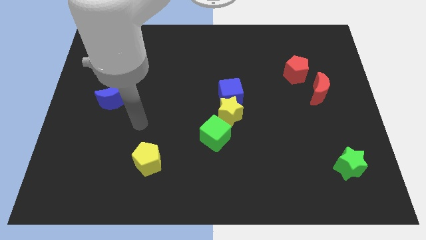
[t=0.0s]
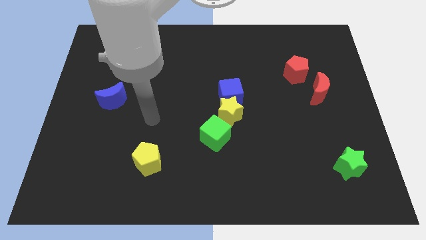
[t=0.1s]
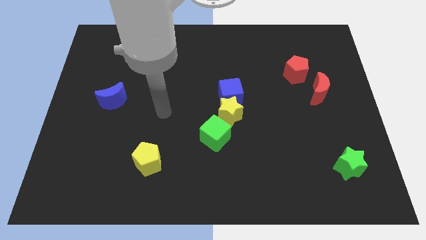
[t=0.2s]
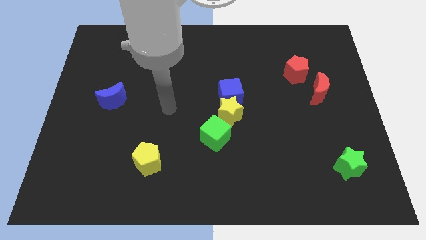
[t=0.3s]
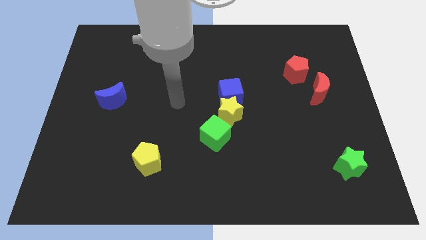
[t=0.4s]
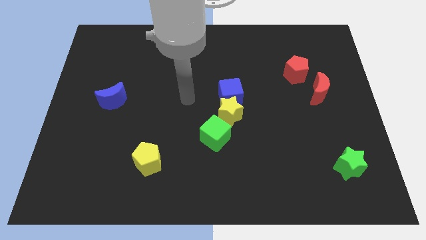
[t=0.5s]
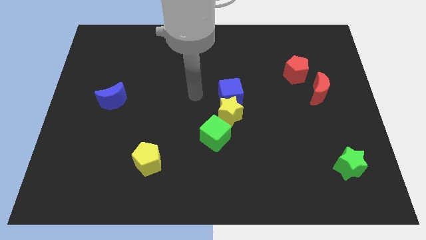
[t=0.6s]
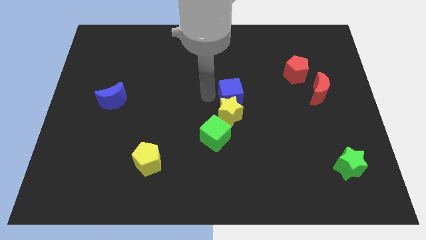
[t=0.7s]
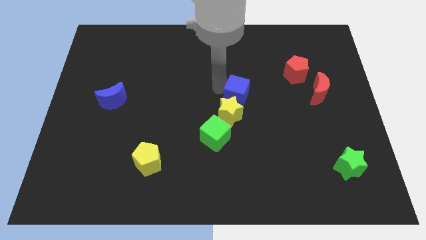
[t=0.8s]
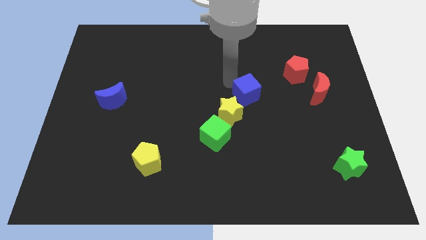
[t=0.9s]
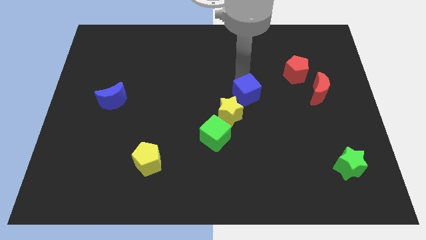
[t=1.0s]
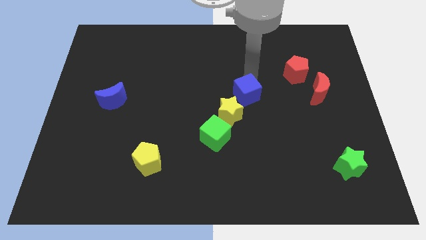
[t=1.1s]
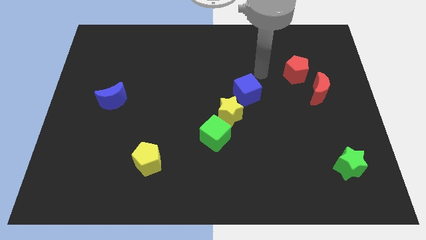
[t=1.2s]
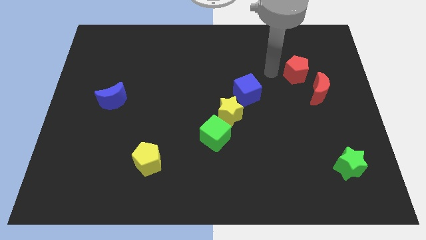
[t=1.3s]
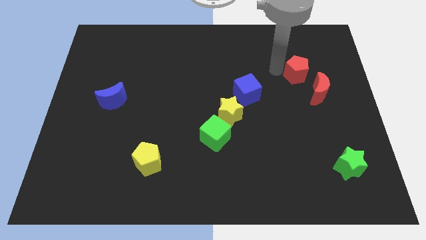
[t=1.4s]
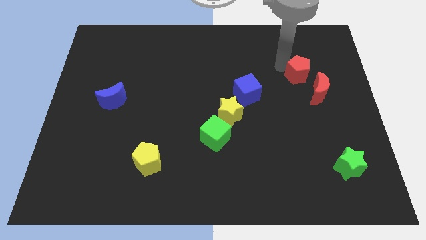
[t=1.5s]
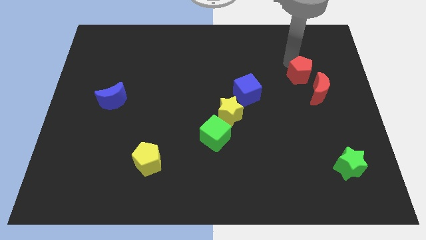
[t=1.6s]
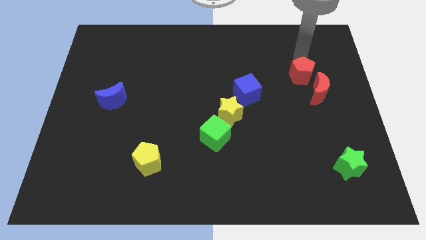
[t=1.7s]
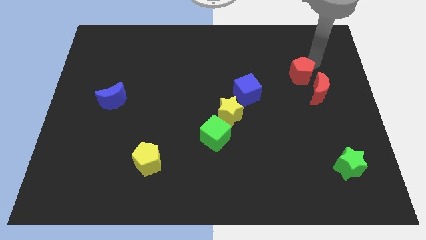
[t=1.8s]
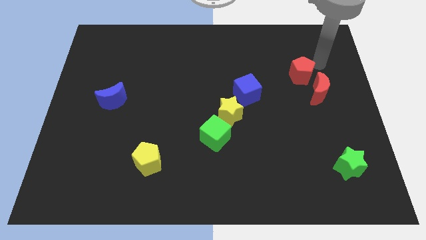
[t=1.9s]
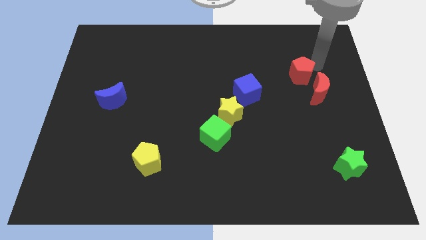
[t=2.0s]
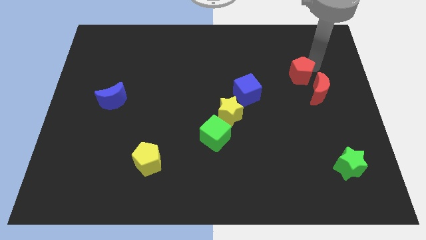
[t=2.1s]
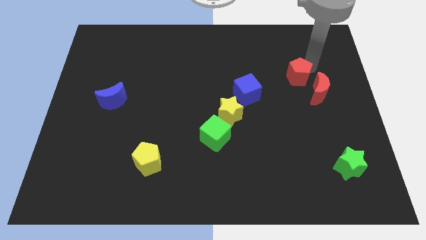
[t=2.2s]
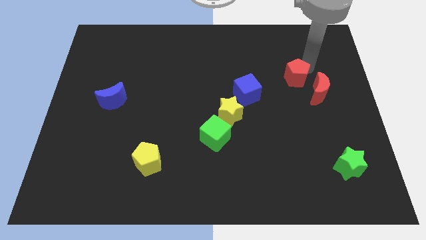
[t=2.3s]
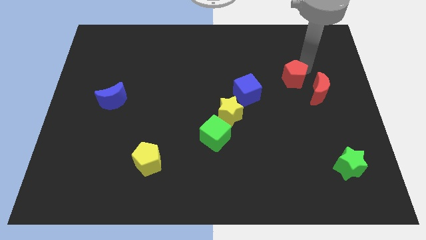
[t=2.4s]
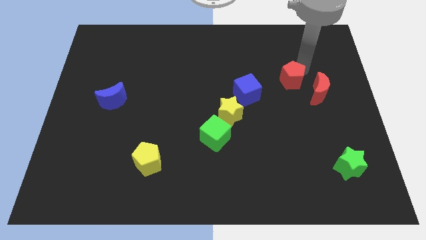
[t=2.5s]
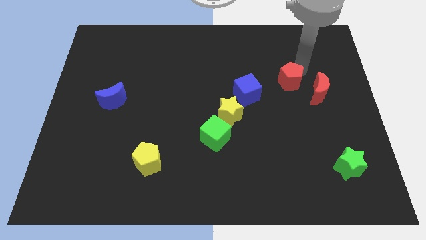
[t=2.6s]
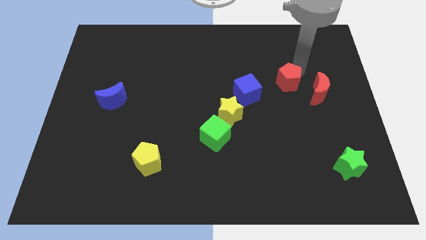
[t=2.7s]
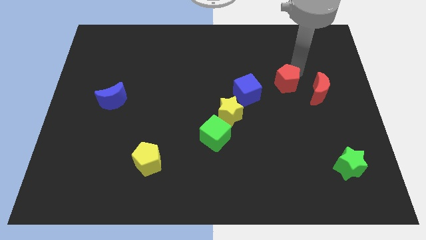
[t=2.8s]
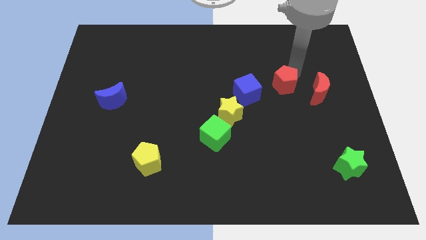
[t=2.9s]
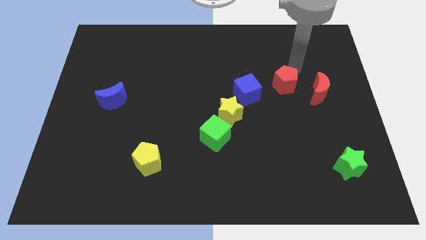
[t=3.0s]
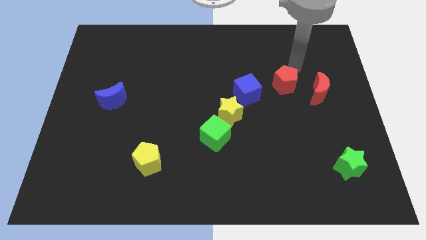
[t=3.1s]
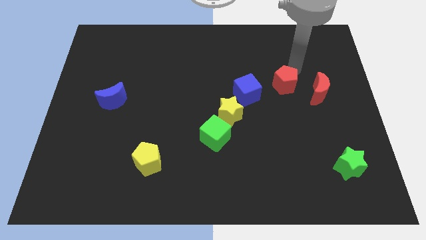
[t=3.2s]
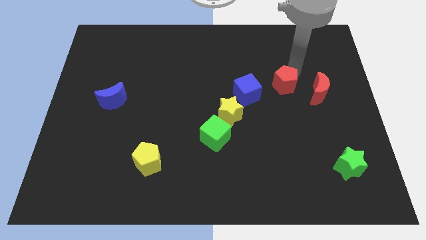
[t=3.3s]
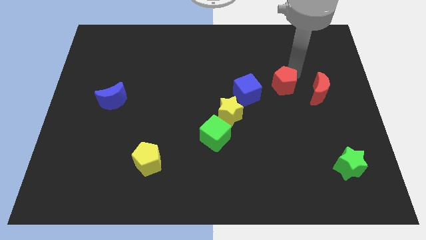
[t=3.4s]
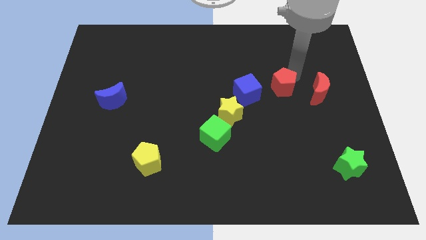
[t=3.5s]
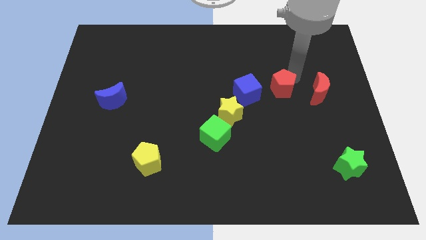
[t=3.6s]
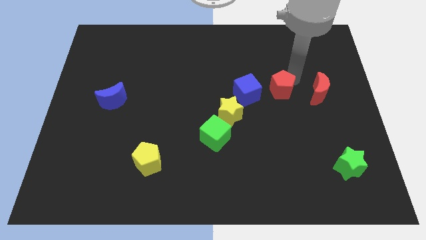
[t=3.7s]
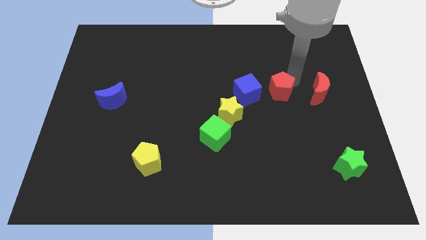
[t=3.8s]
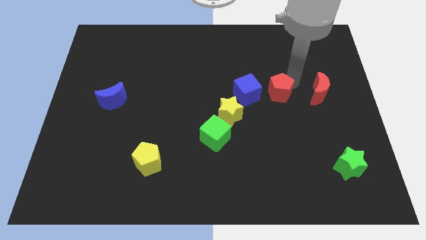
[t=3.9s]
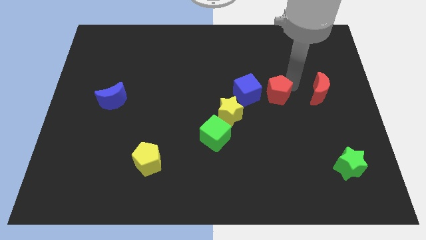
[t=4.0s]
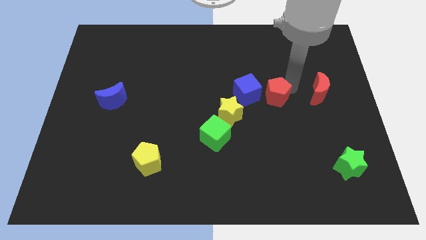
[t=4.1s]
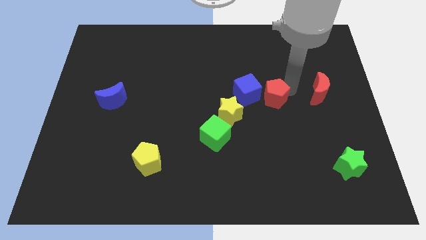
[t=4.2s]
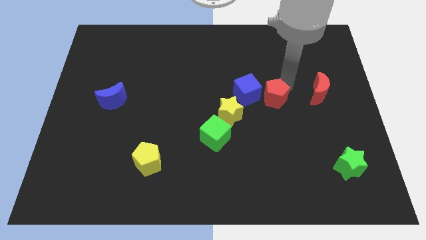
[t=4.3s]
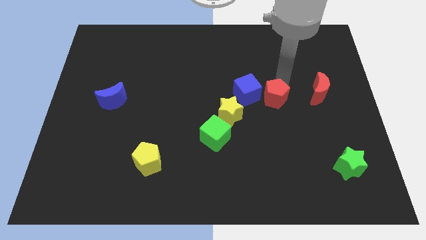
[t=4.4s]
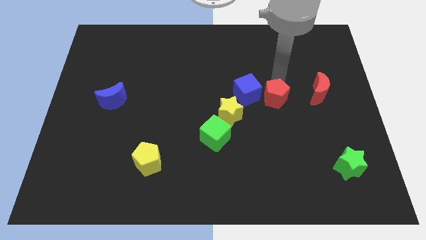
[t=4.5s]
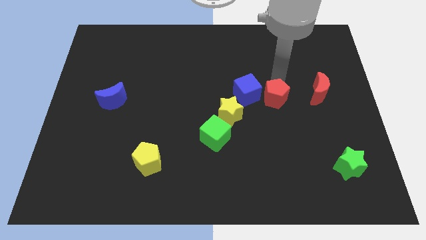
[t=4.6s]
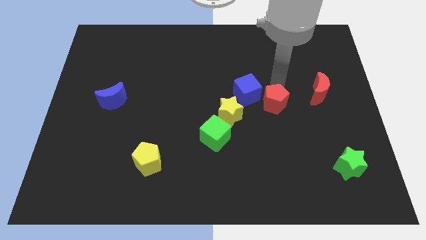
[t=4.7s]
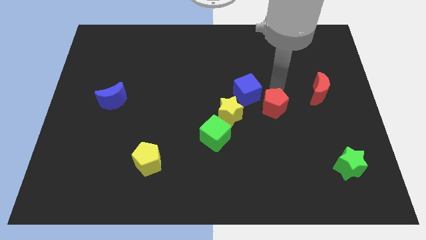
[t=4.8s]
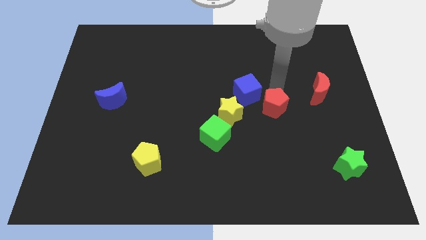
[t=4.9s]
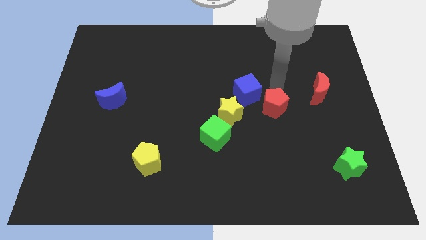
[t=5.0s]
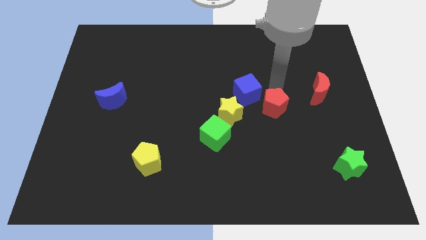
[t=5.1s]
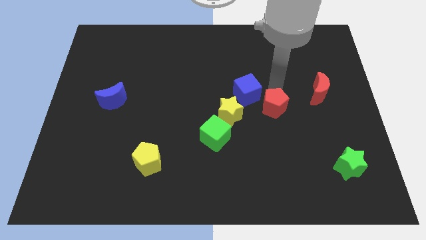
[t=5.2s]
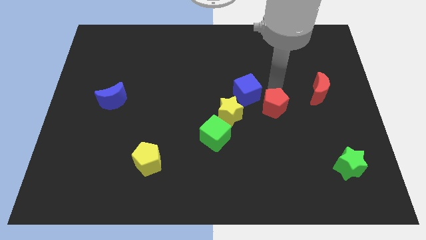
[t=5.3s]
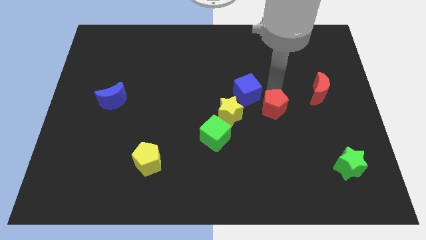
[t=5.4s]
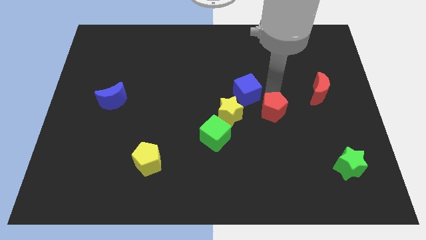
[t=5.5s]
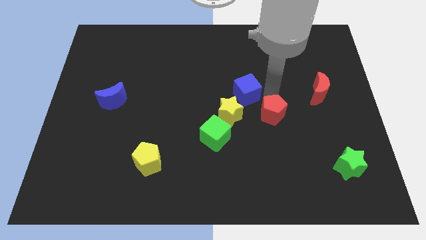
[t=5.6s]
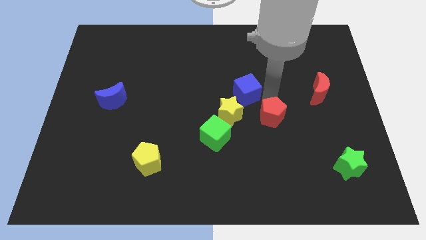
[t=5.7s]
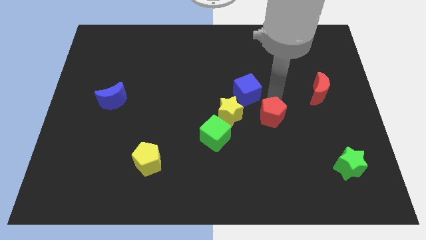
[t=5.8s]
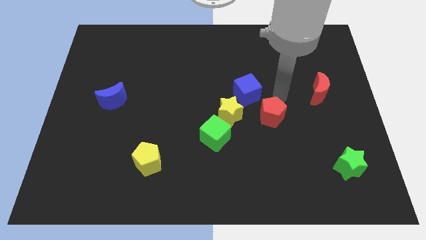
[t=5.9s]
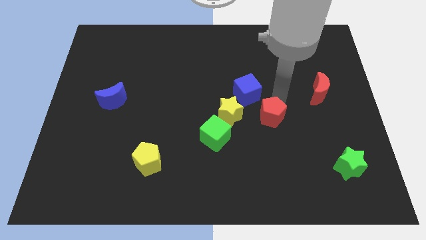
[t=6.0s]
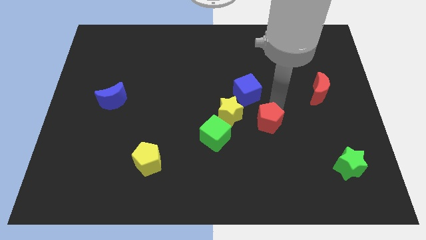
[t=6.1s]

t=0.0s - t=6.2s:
slide the red pentagon right of the green cube
